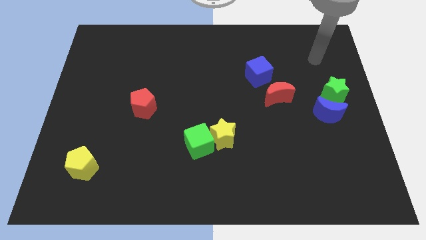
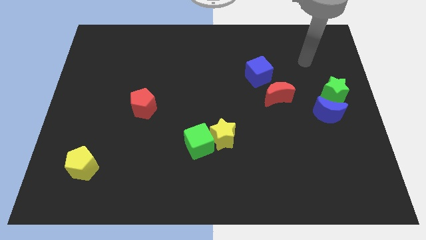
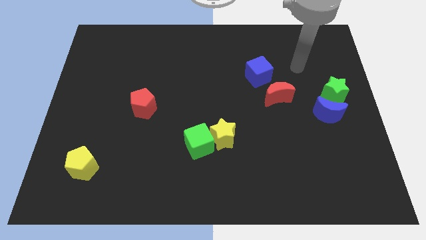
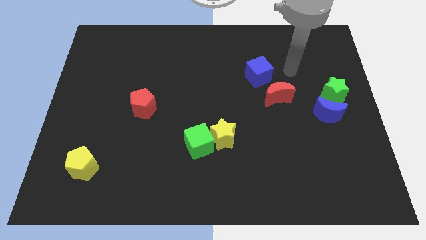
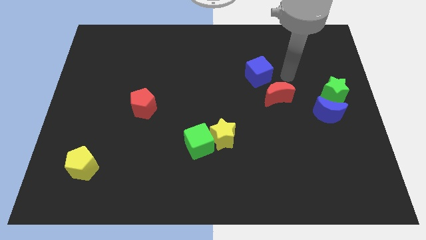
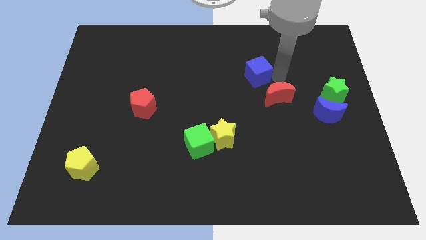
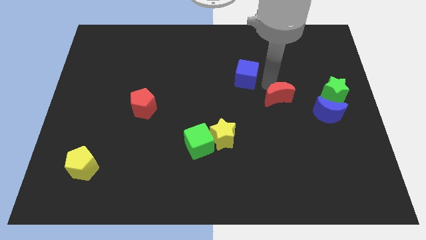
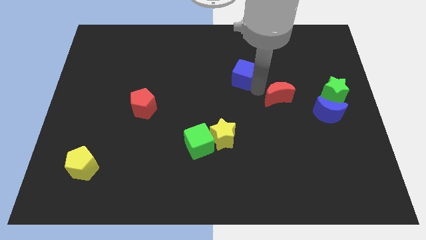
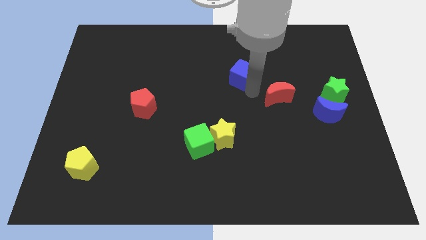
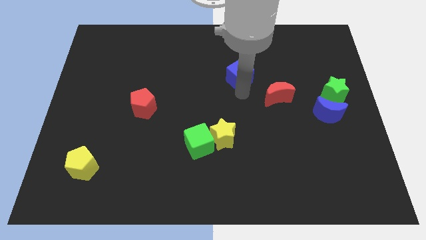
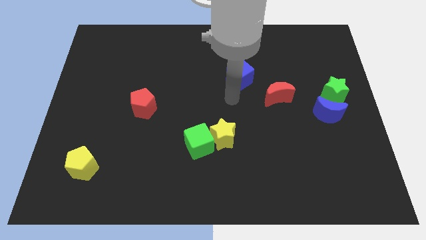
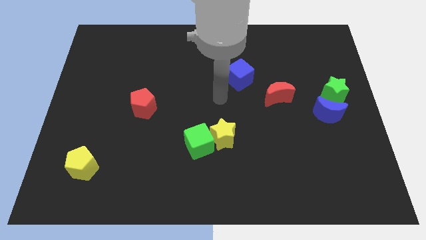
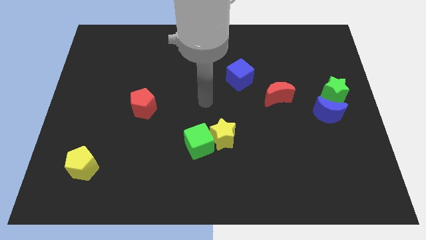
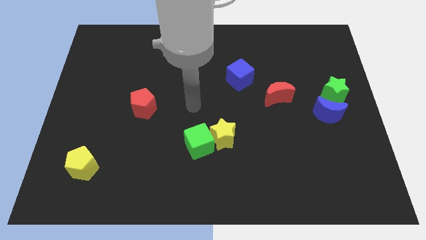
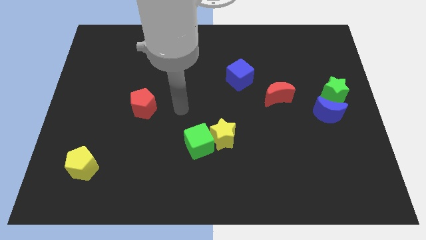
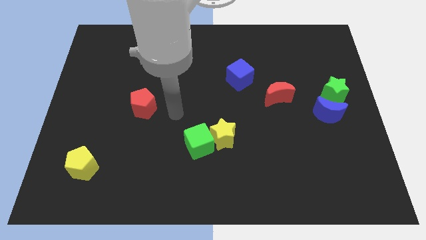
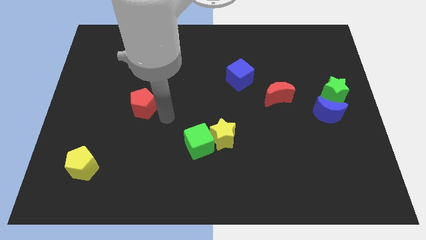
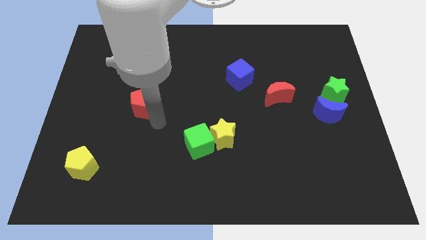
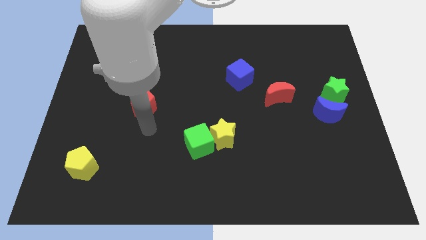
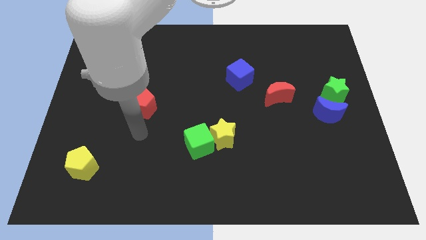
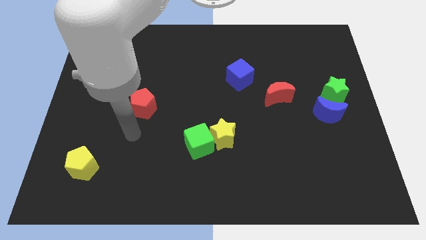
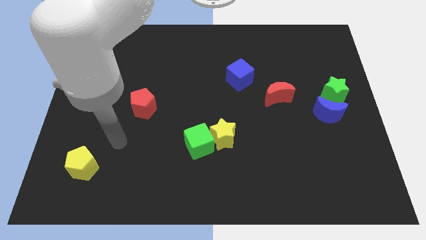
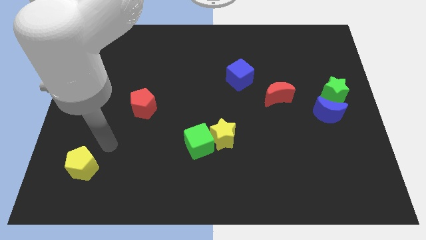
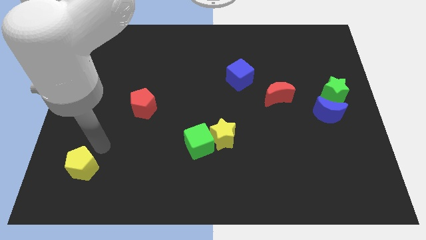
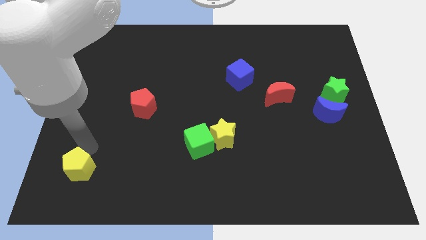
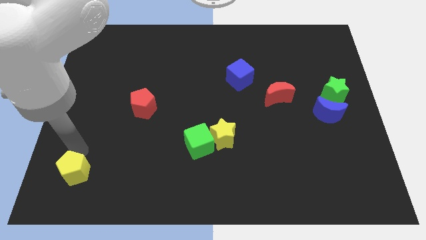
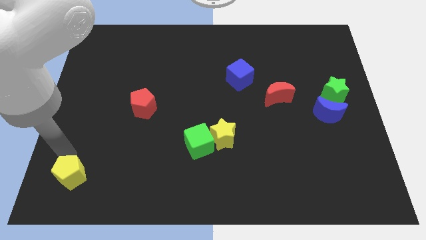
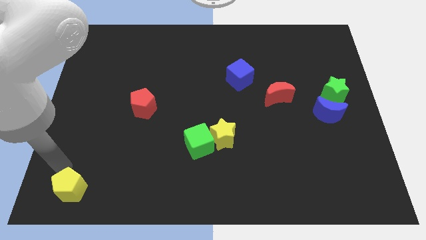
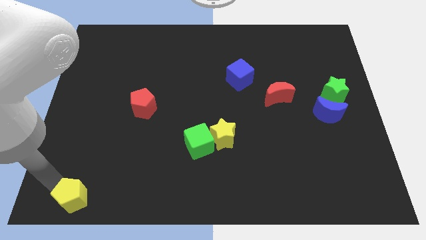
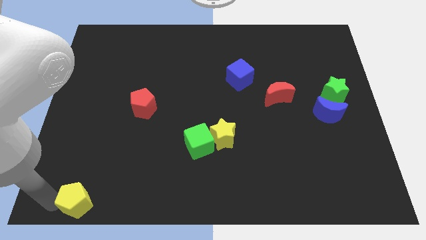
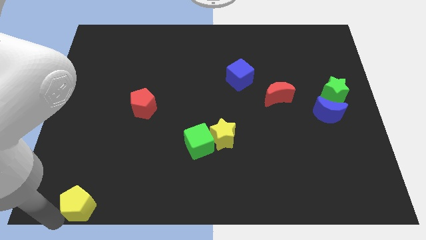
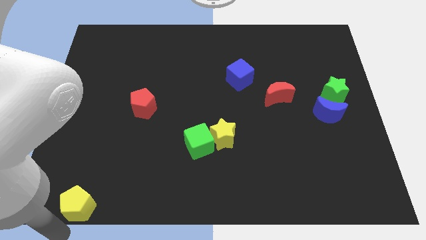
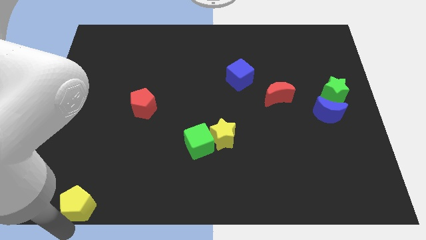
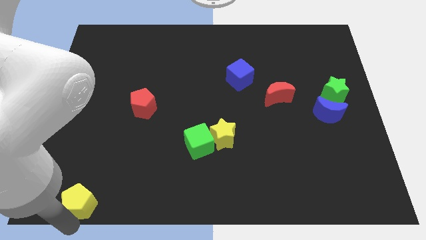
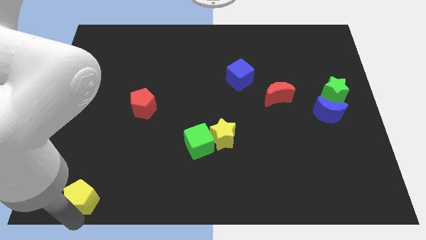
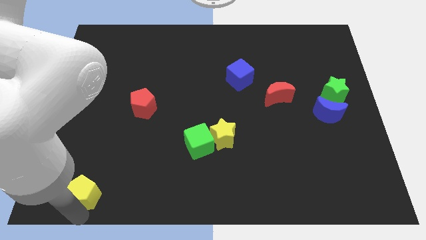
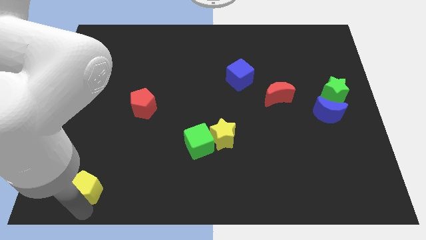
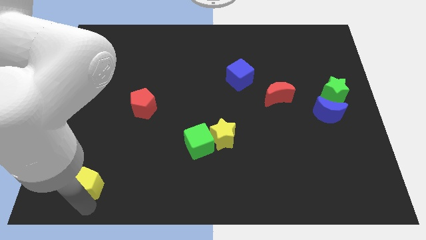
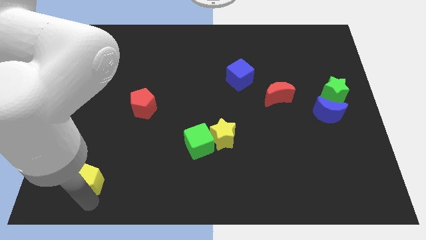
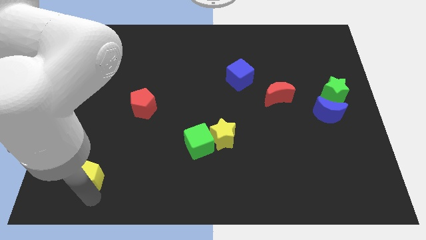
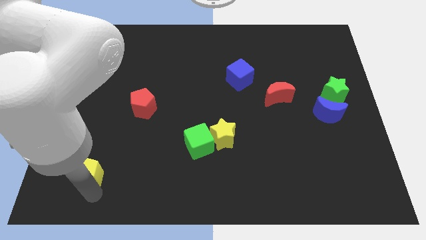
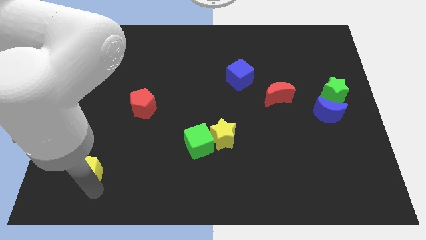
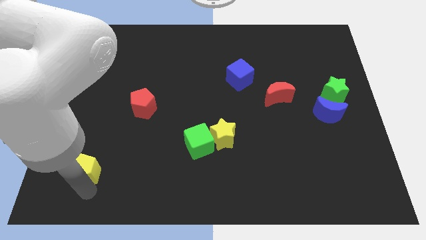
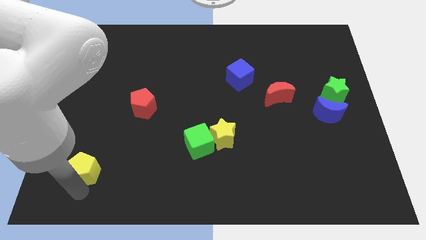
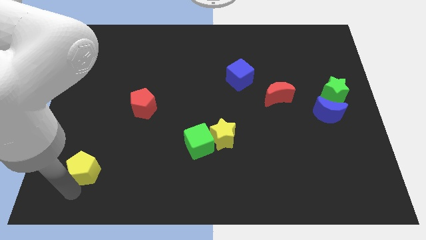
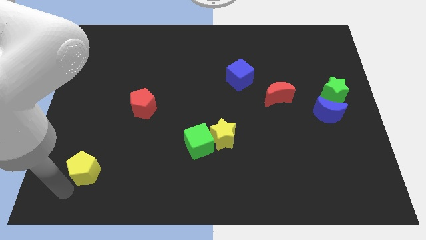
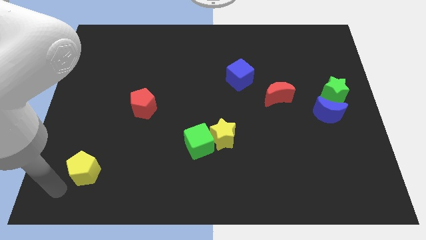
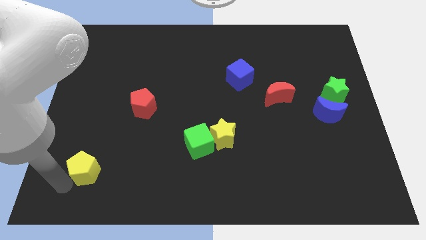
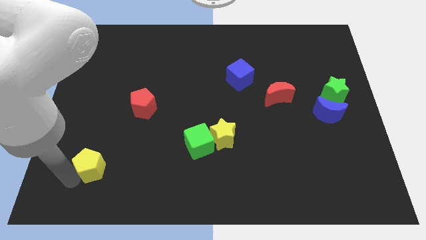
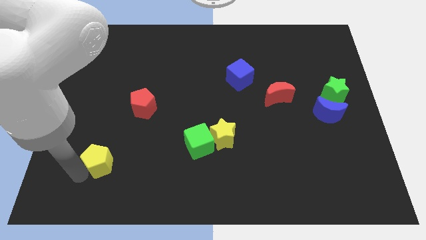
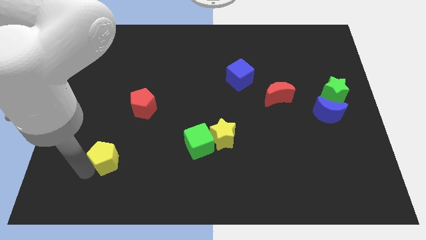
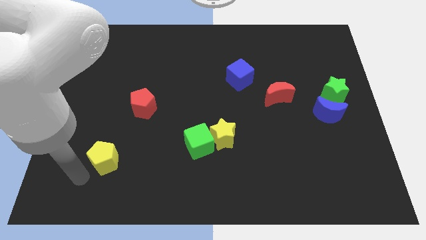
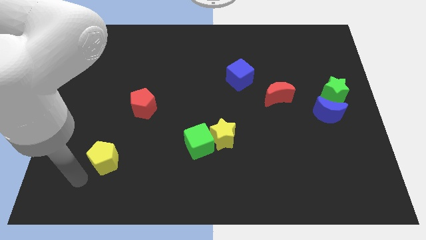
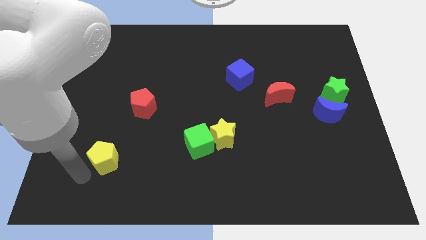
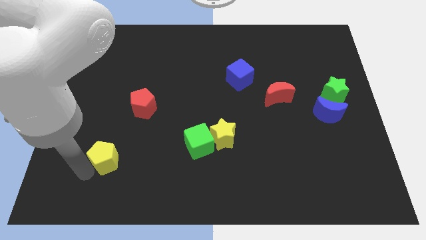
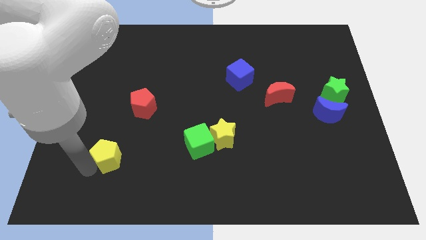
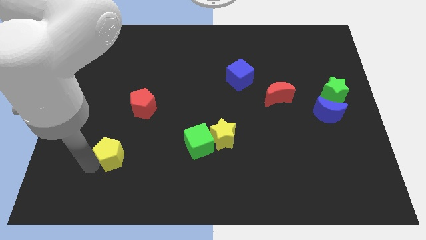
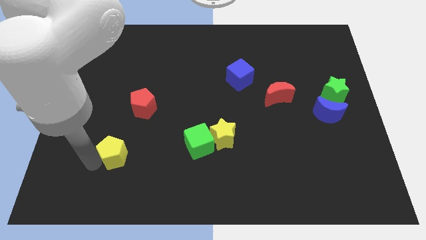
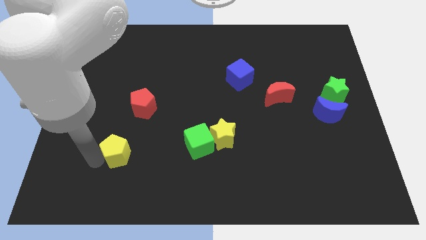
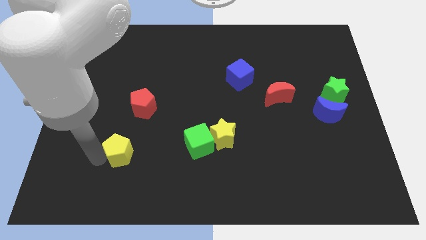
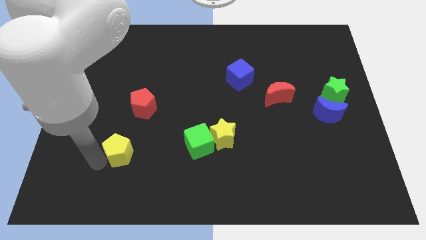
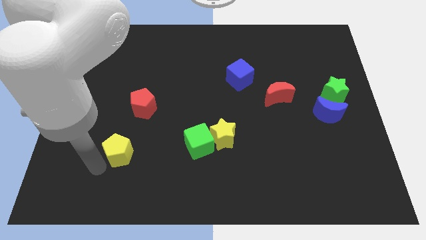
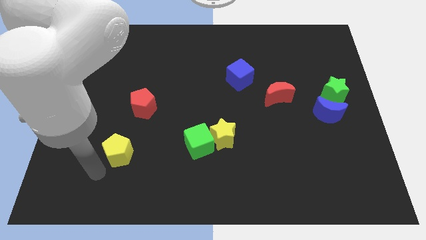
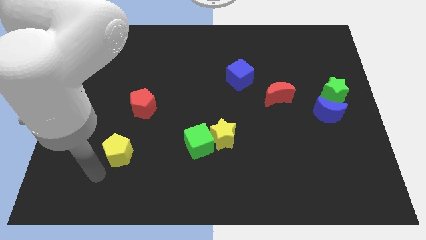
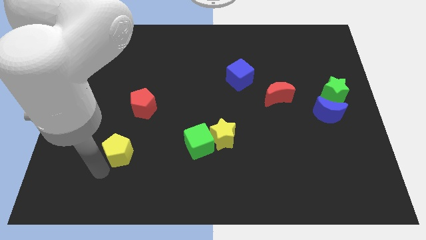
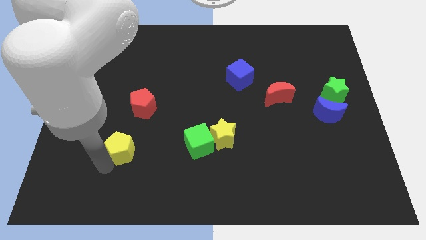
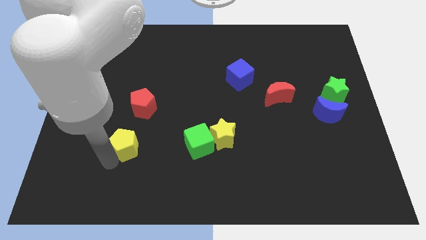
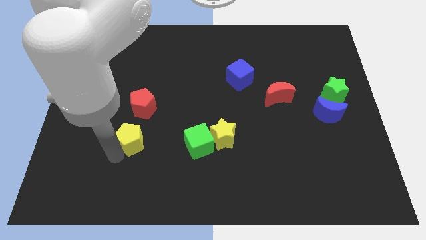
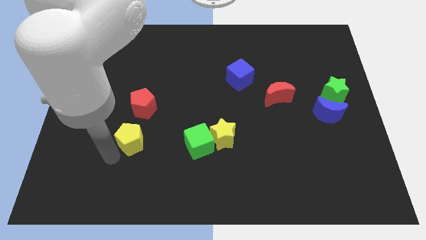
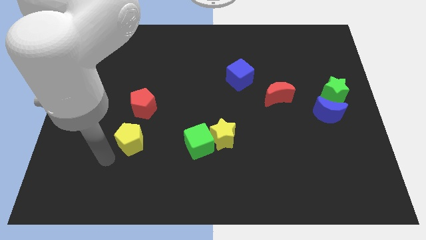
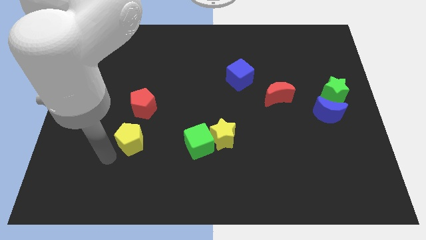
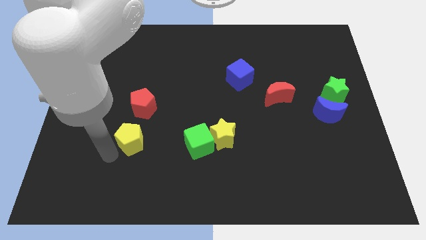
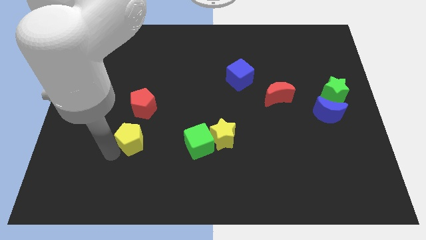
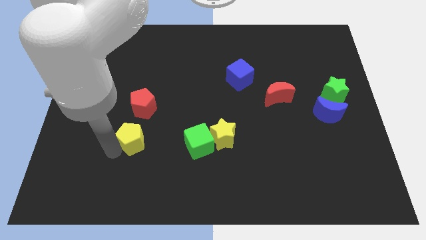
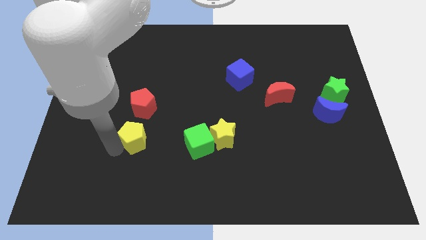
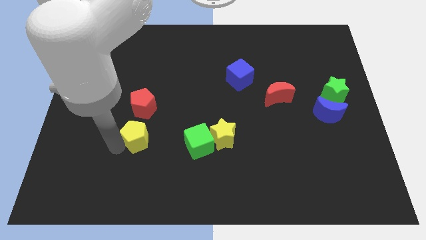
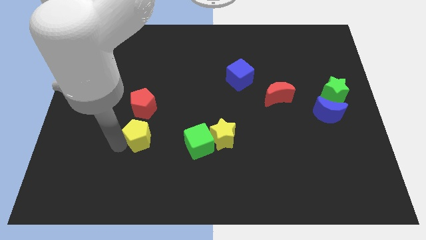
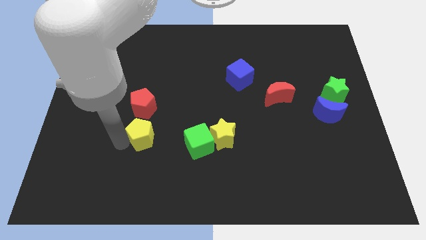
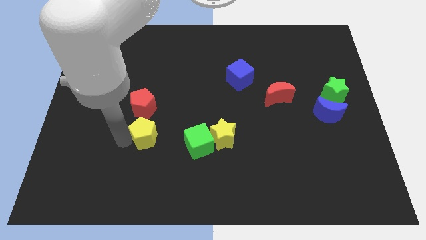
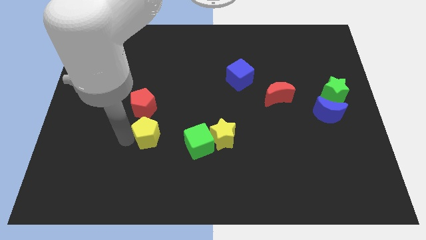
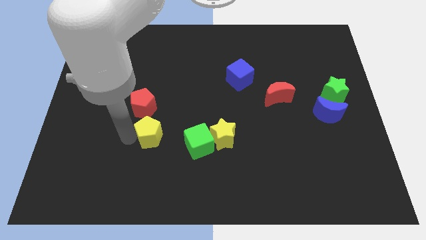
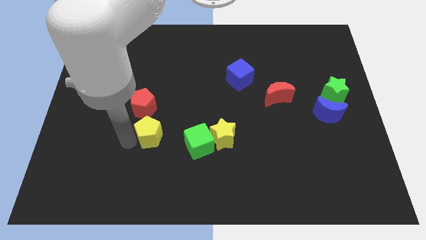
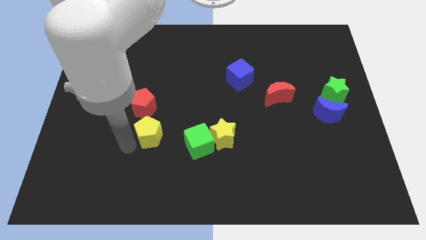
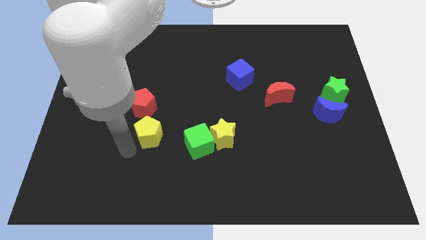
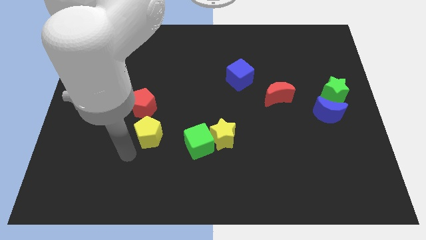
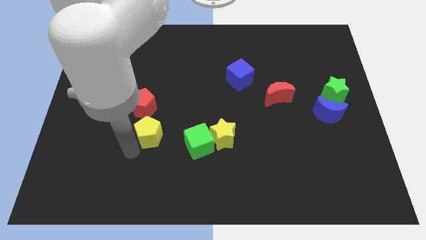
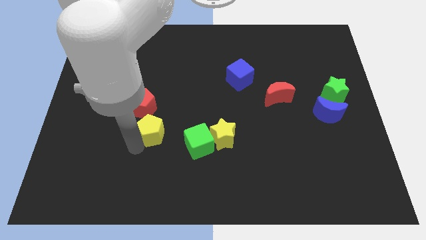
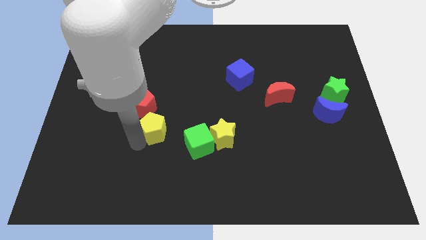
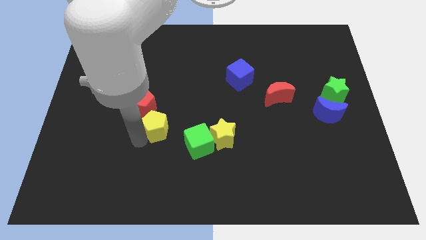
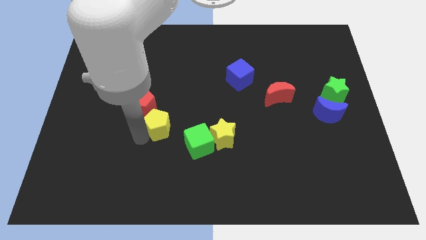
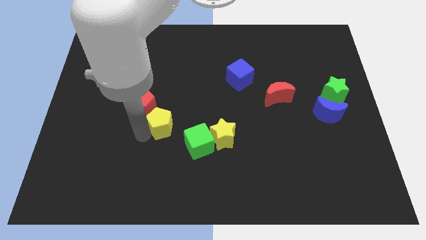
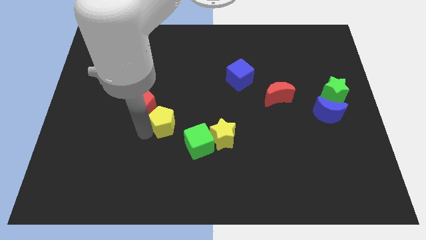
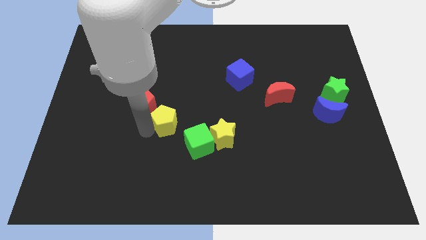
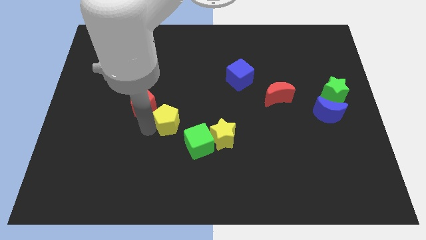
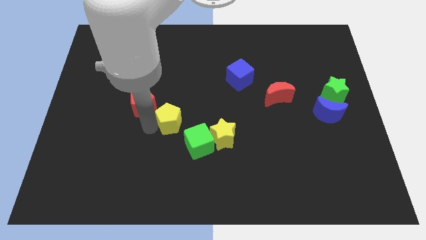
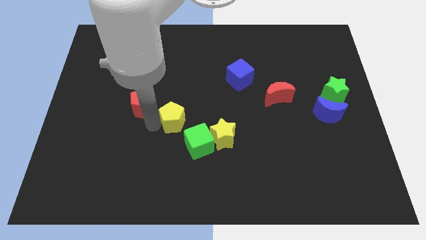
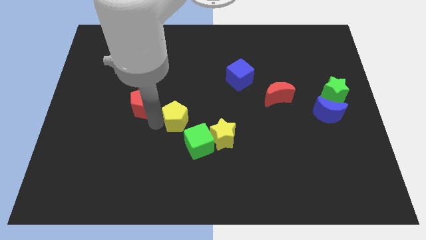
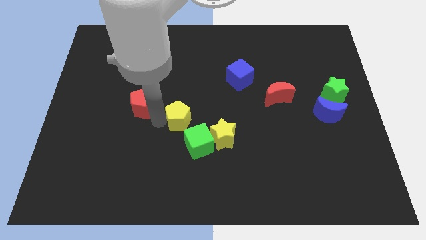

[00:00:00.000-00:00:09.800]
slide the yellow pentagon to the top of the green cube
